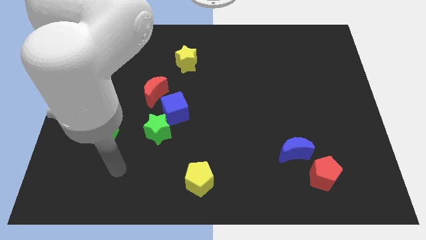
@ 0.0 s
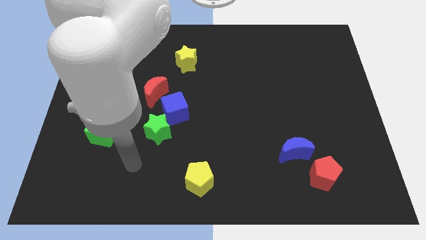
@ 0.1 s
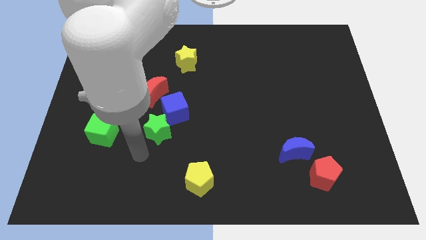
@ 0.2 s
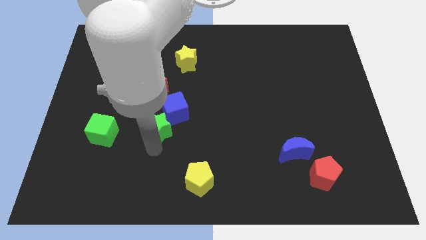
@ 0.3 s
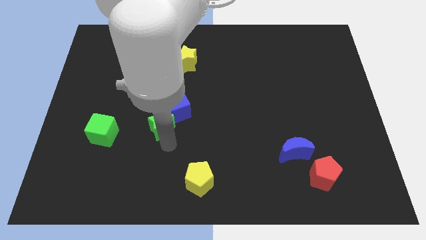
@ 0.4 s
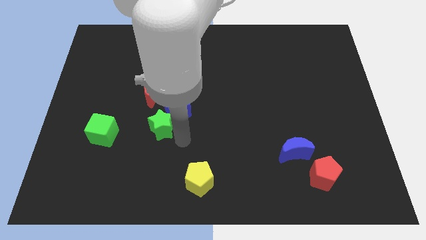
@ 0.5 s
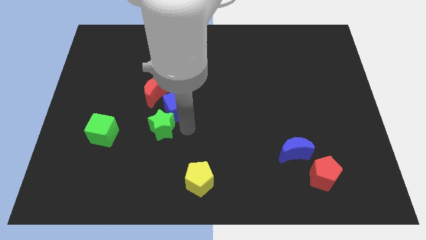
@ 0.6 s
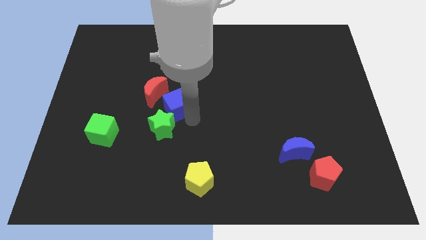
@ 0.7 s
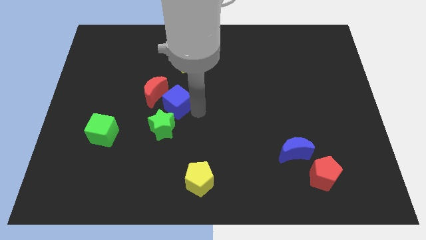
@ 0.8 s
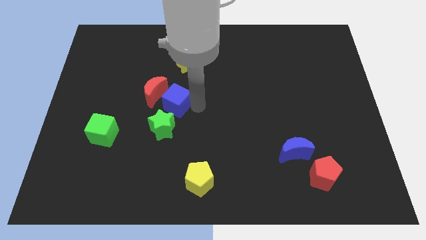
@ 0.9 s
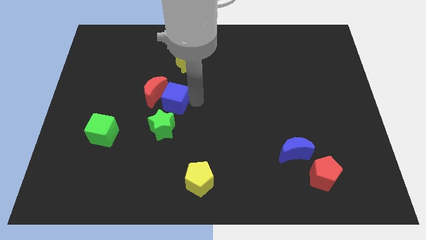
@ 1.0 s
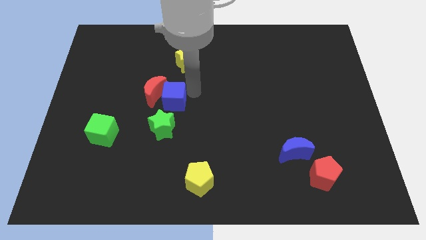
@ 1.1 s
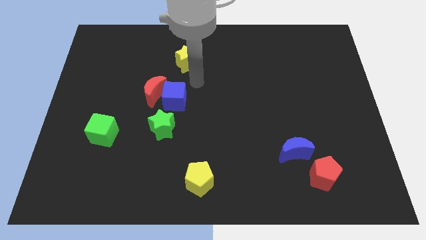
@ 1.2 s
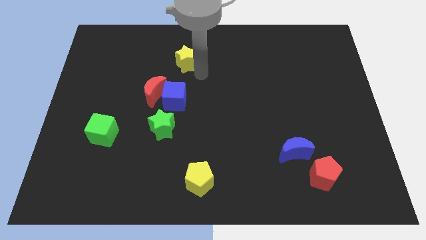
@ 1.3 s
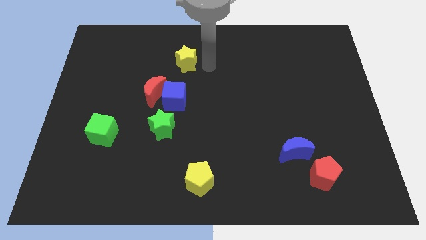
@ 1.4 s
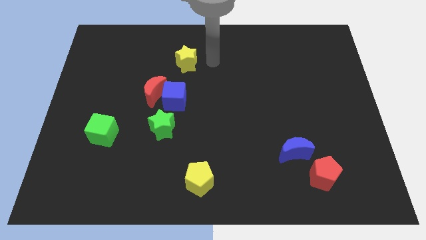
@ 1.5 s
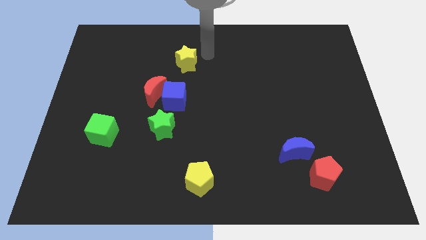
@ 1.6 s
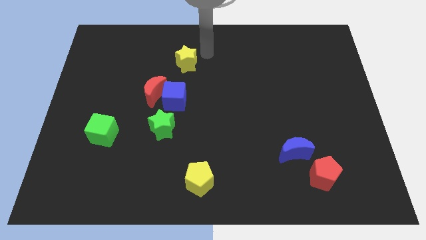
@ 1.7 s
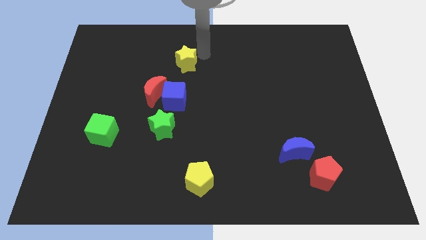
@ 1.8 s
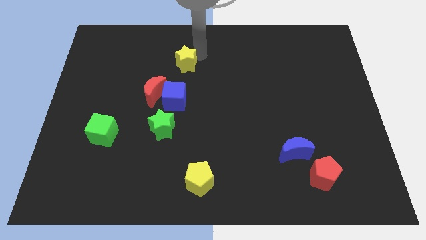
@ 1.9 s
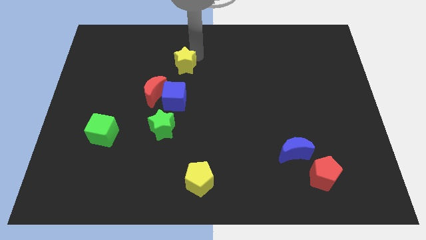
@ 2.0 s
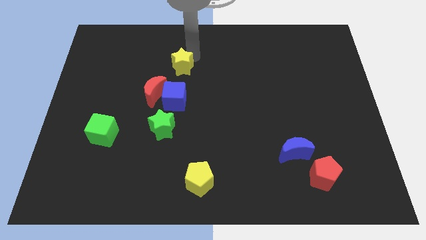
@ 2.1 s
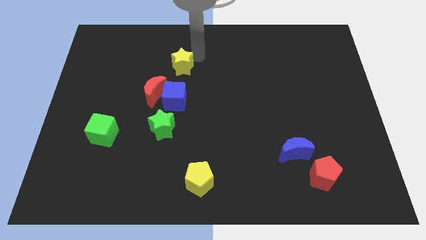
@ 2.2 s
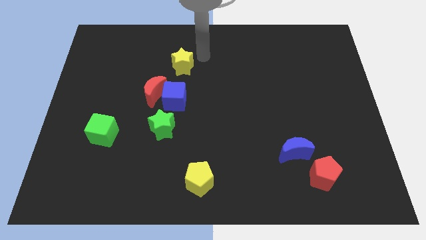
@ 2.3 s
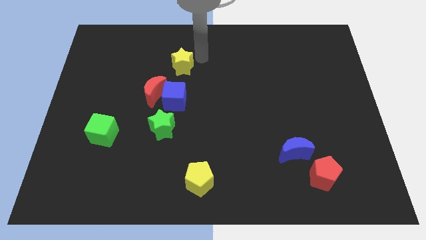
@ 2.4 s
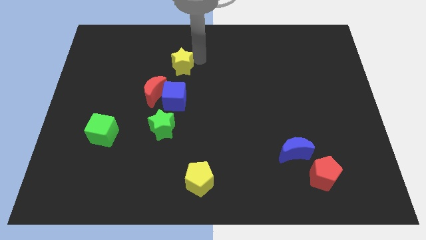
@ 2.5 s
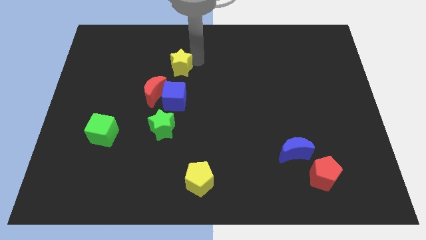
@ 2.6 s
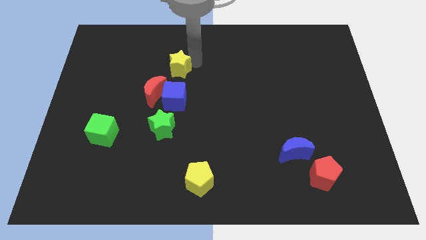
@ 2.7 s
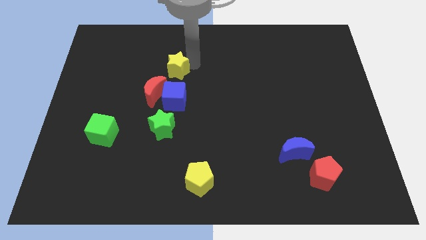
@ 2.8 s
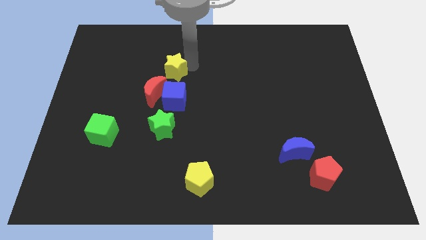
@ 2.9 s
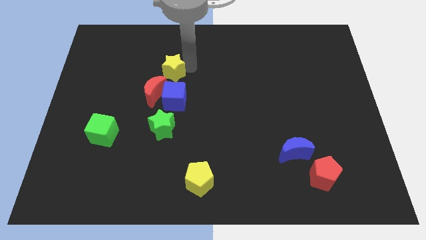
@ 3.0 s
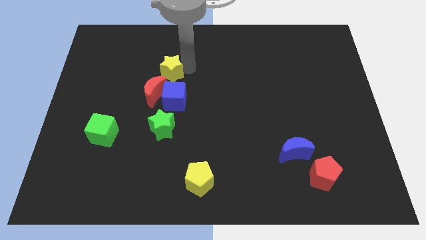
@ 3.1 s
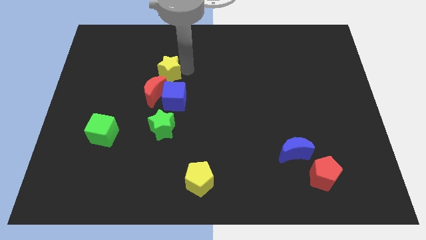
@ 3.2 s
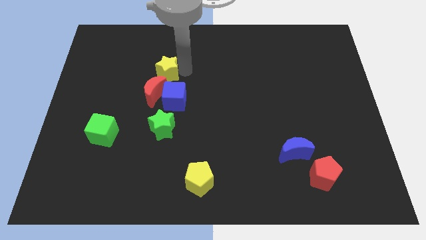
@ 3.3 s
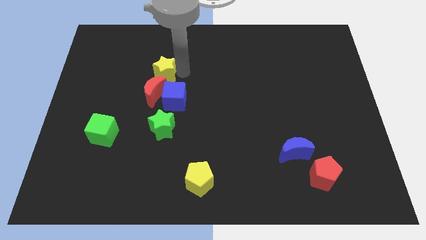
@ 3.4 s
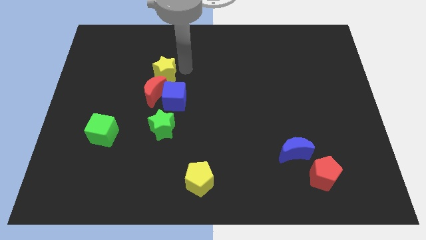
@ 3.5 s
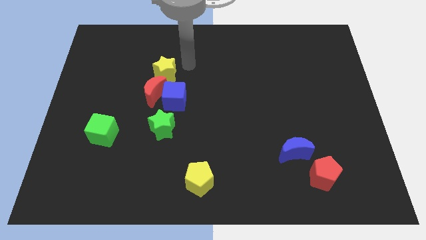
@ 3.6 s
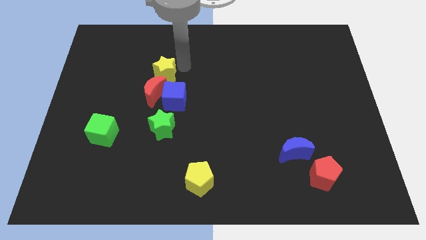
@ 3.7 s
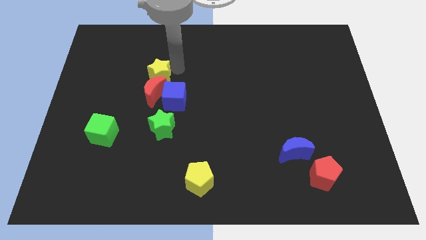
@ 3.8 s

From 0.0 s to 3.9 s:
slide the yellow star downwards and left diagonally a bit

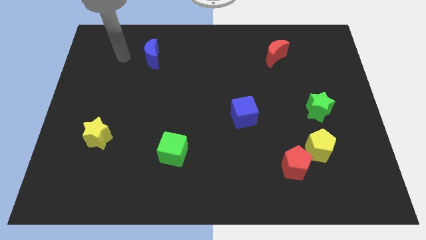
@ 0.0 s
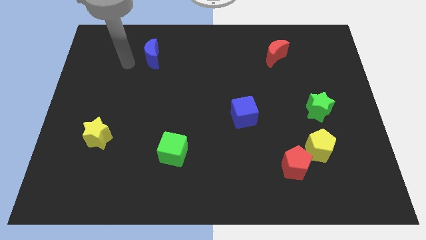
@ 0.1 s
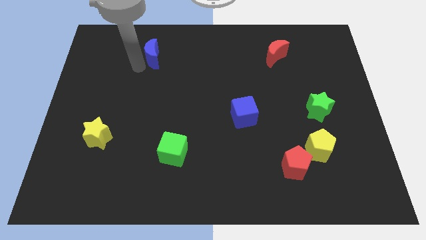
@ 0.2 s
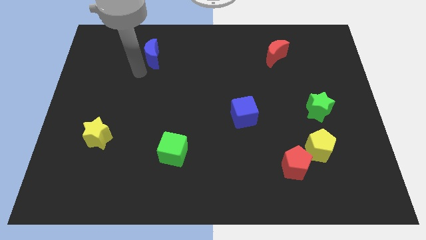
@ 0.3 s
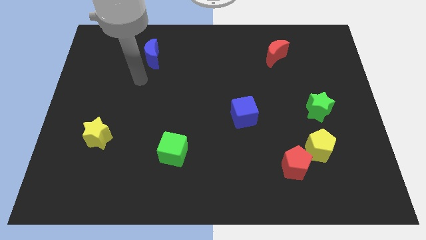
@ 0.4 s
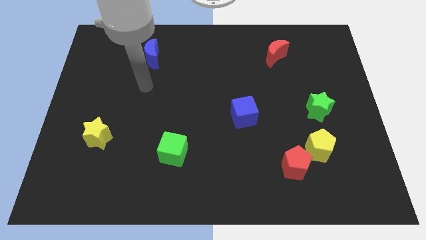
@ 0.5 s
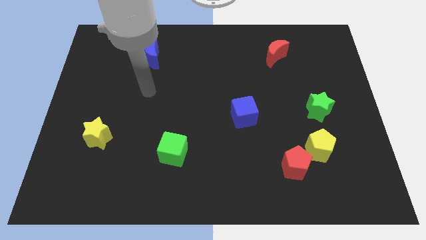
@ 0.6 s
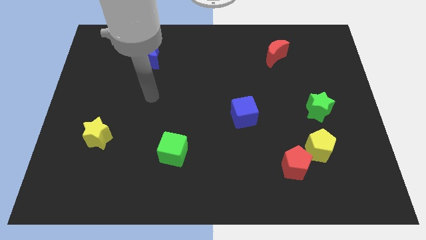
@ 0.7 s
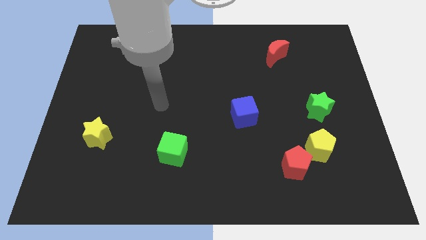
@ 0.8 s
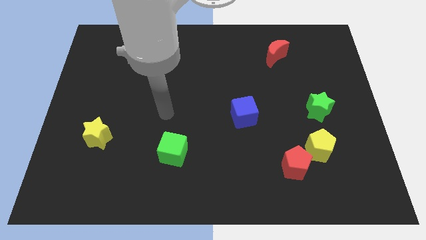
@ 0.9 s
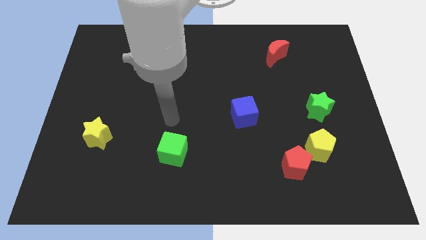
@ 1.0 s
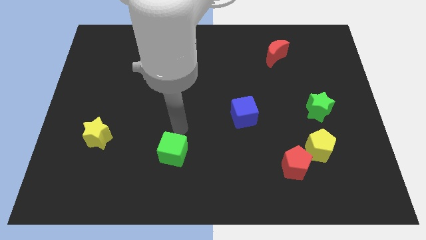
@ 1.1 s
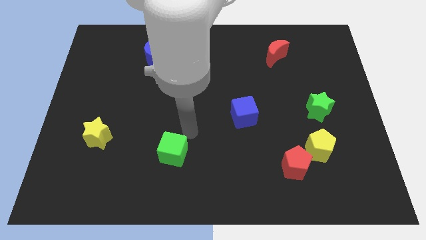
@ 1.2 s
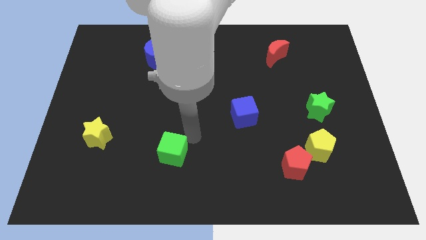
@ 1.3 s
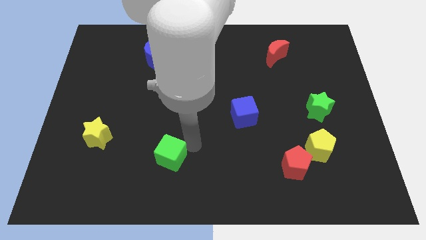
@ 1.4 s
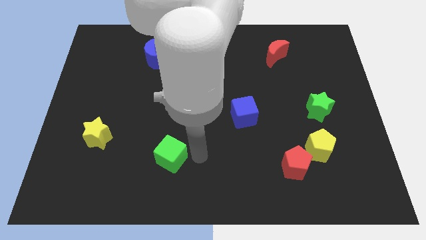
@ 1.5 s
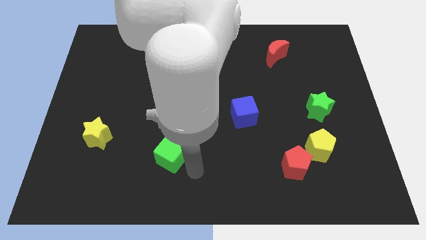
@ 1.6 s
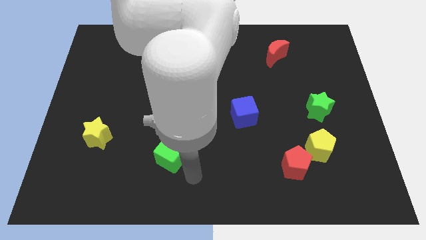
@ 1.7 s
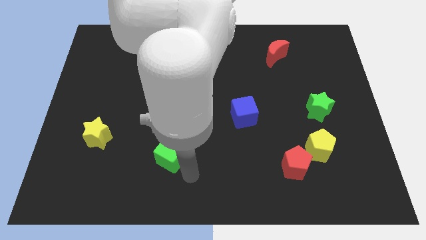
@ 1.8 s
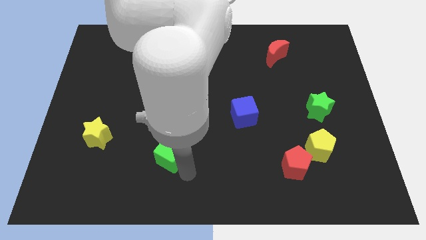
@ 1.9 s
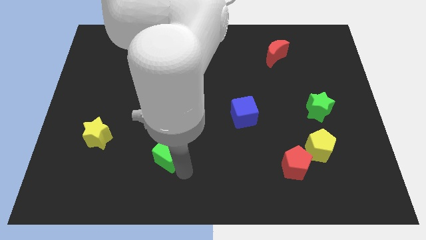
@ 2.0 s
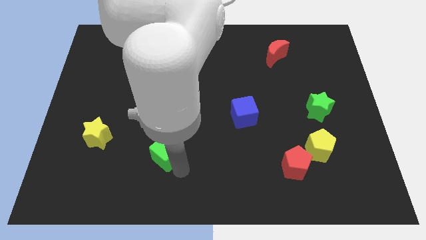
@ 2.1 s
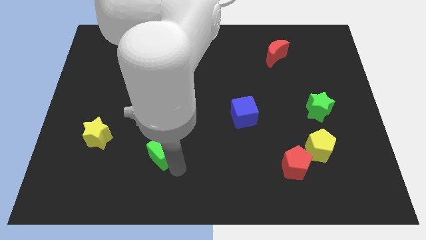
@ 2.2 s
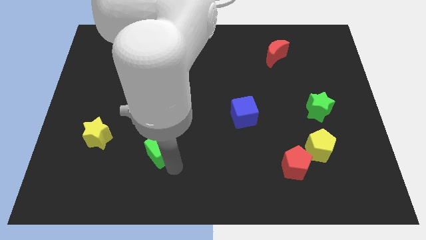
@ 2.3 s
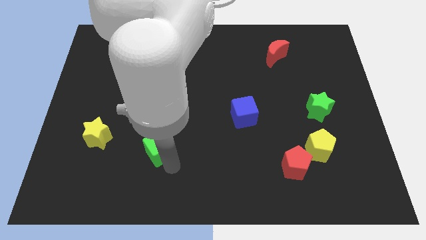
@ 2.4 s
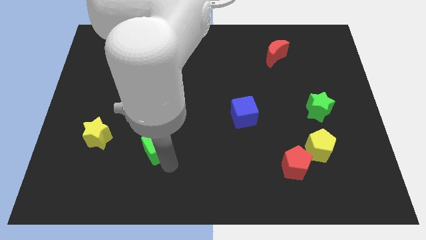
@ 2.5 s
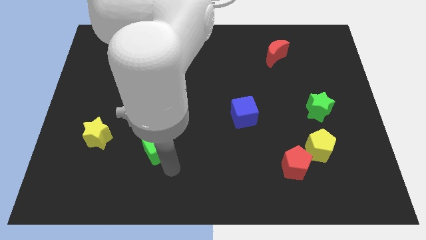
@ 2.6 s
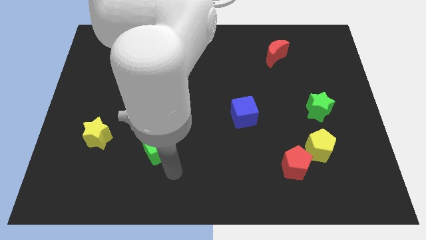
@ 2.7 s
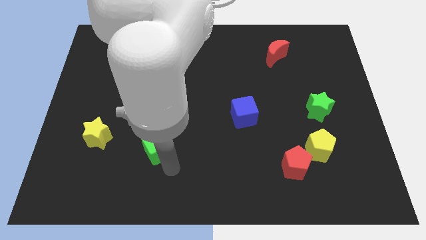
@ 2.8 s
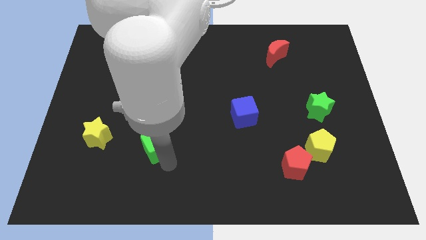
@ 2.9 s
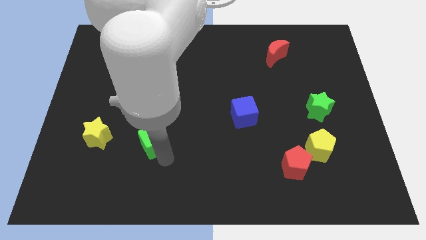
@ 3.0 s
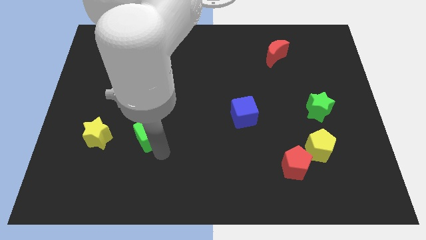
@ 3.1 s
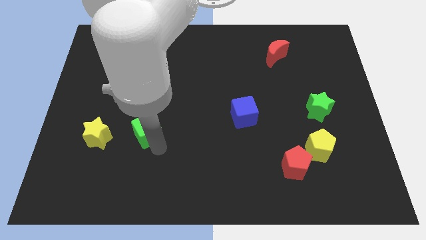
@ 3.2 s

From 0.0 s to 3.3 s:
push the green cube slightly upwards and left

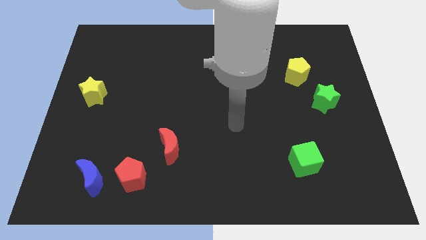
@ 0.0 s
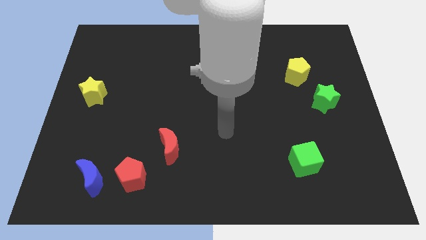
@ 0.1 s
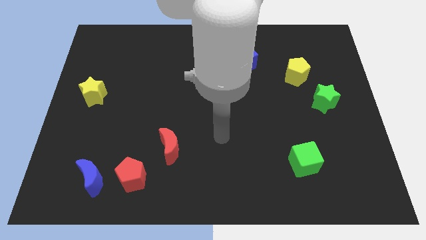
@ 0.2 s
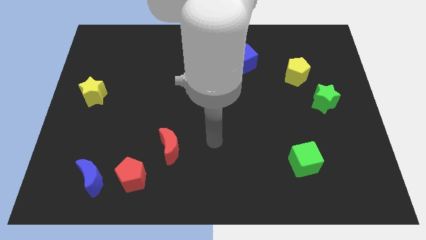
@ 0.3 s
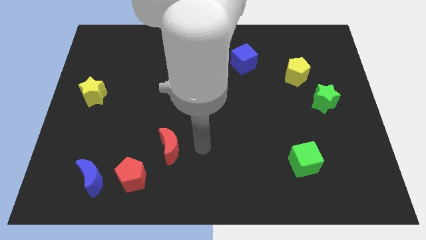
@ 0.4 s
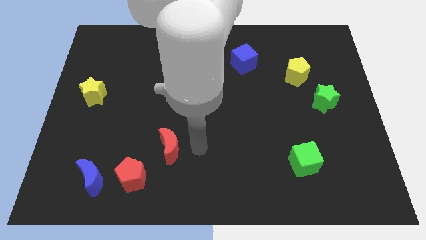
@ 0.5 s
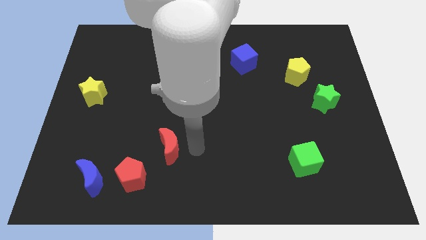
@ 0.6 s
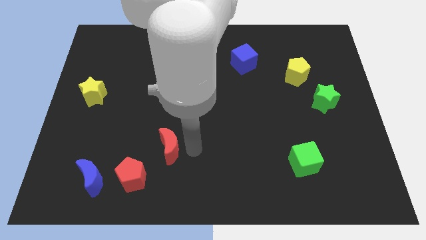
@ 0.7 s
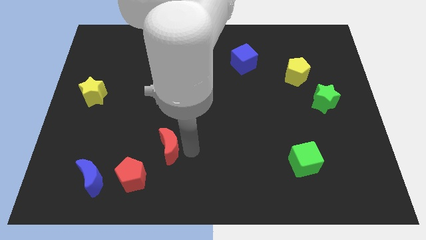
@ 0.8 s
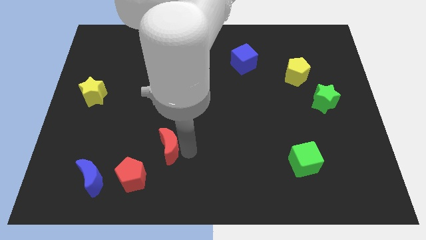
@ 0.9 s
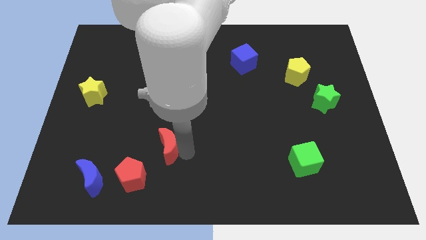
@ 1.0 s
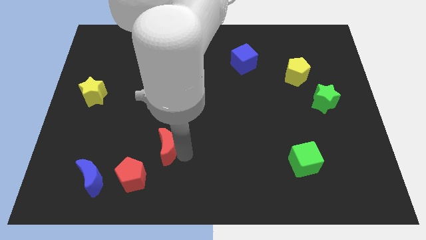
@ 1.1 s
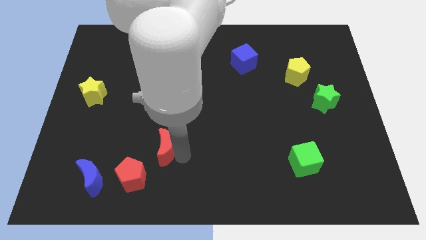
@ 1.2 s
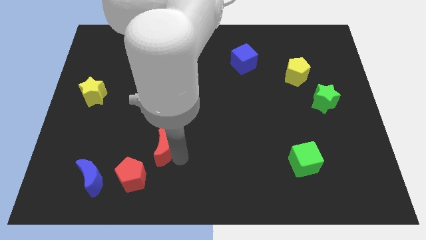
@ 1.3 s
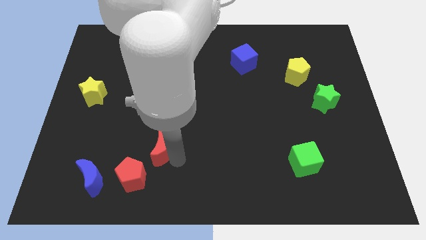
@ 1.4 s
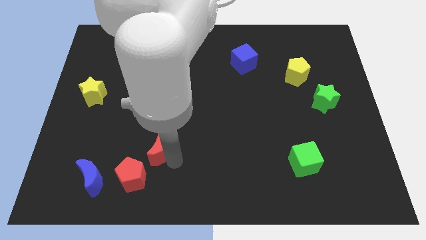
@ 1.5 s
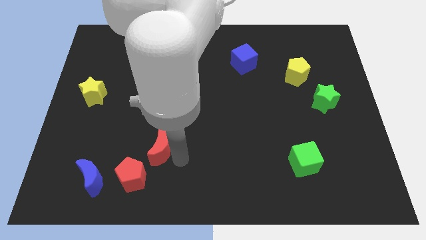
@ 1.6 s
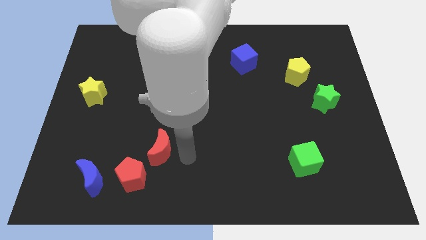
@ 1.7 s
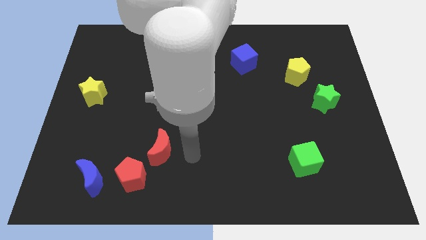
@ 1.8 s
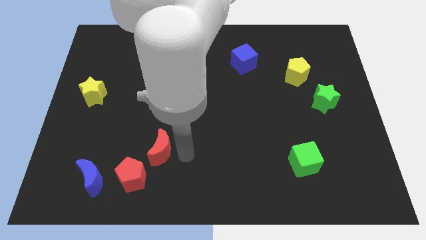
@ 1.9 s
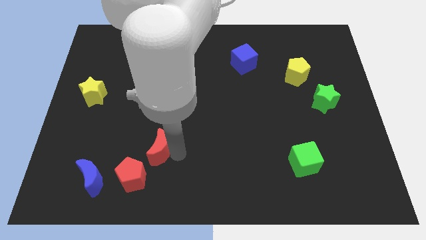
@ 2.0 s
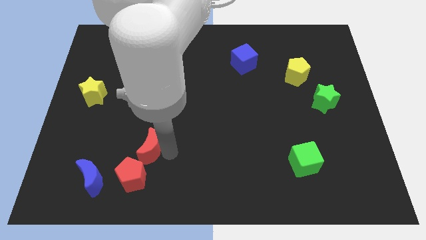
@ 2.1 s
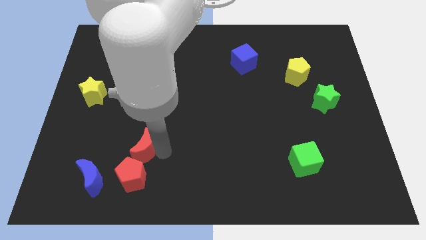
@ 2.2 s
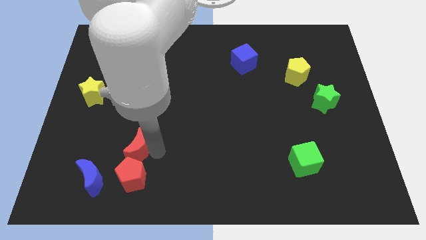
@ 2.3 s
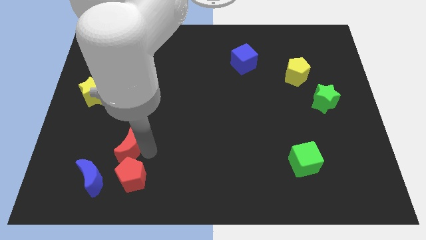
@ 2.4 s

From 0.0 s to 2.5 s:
move the red moon somewhat to the left
